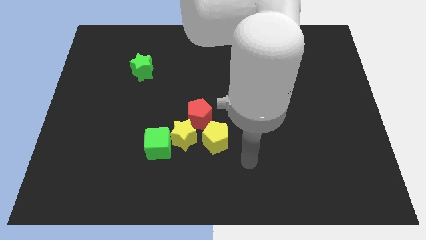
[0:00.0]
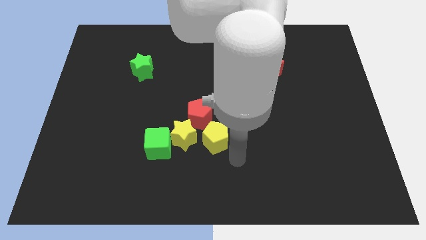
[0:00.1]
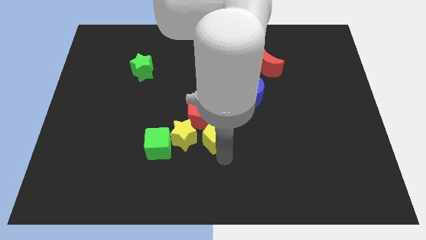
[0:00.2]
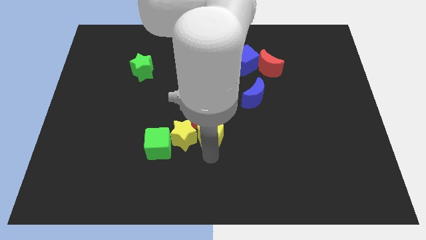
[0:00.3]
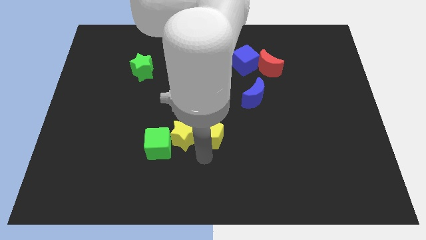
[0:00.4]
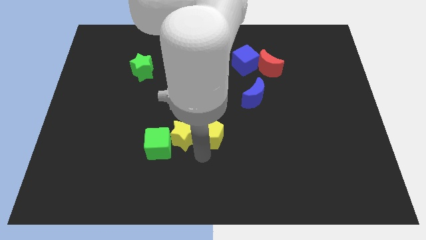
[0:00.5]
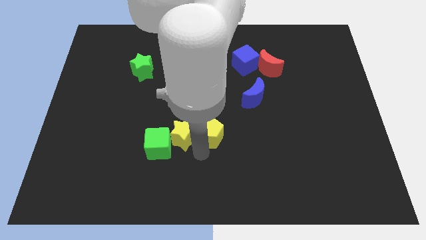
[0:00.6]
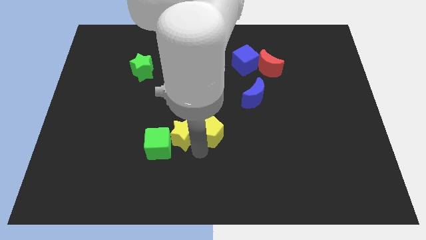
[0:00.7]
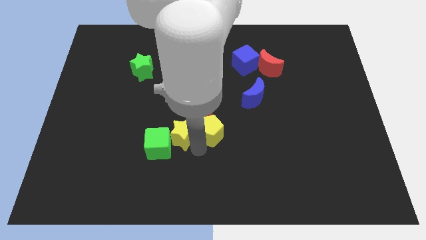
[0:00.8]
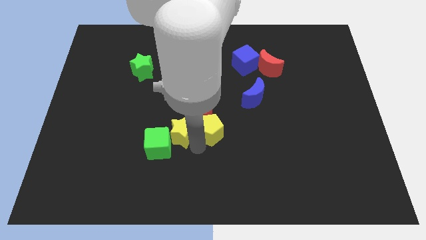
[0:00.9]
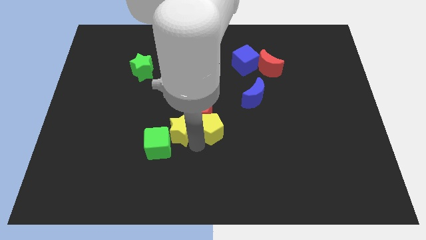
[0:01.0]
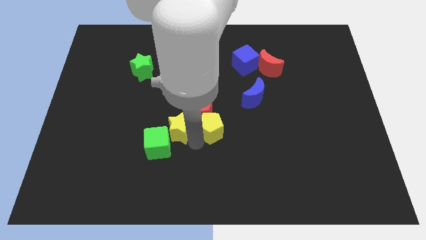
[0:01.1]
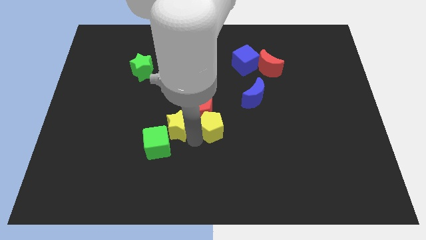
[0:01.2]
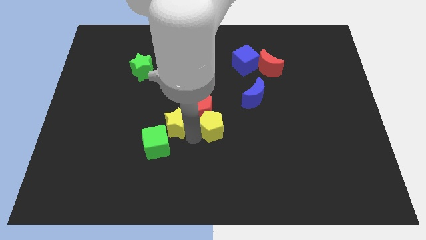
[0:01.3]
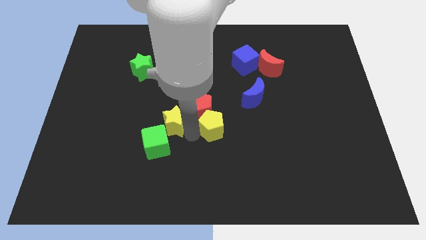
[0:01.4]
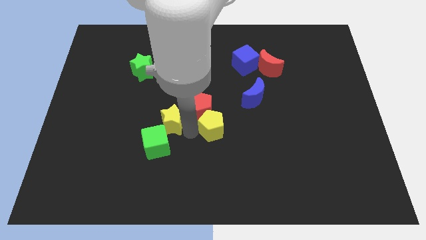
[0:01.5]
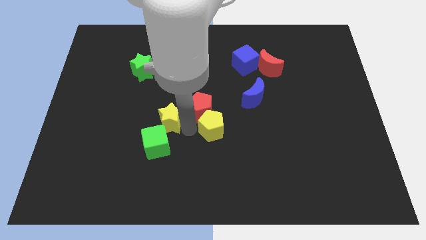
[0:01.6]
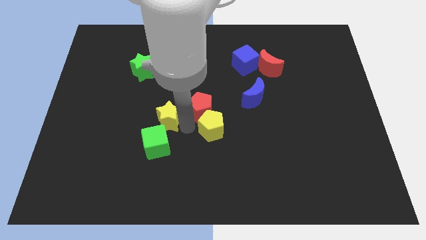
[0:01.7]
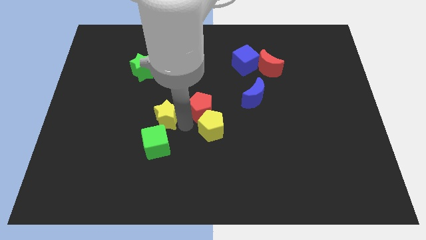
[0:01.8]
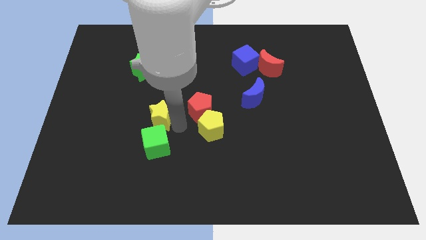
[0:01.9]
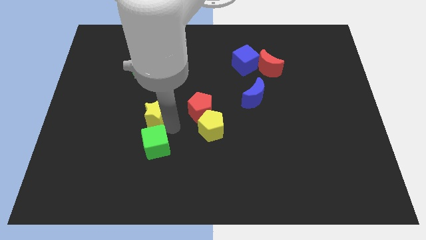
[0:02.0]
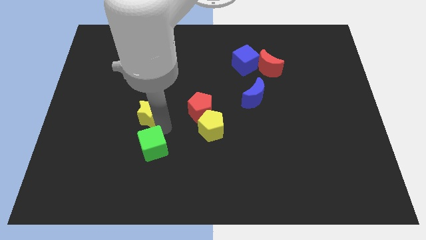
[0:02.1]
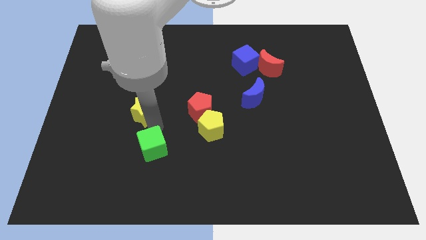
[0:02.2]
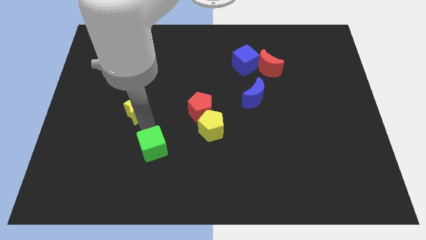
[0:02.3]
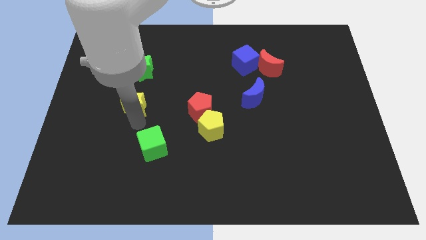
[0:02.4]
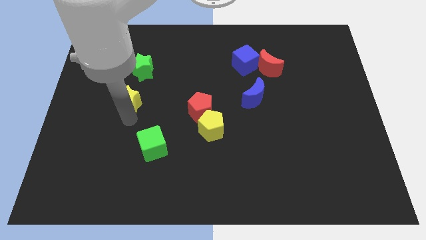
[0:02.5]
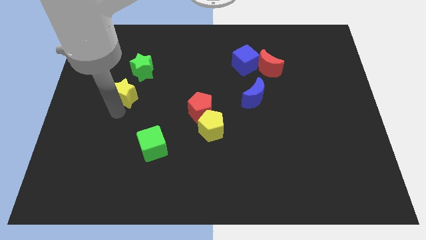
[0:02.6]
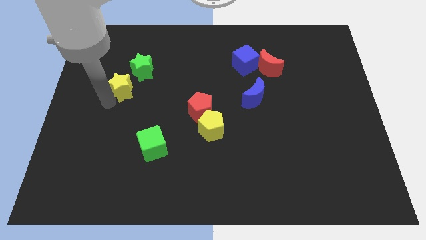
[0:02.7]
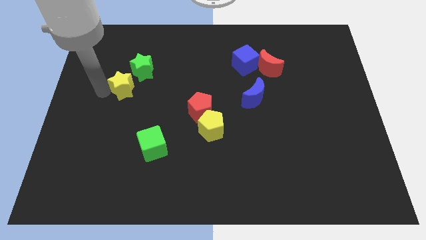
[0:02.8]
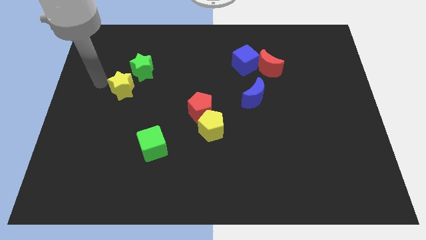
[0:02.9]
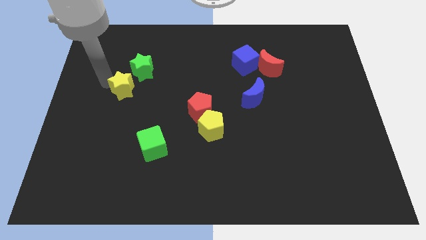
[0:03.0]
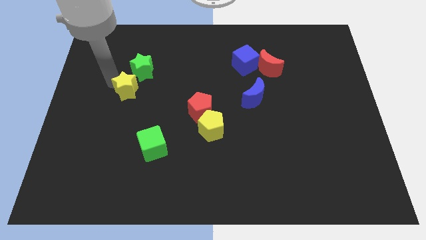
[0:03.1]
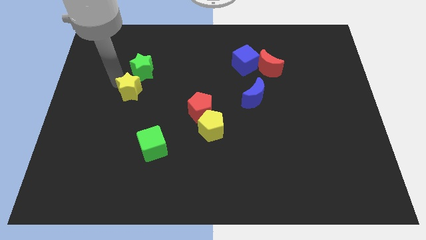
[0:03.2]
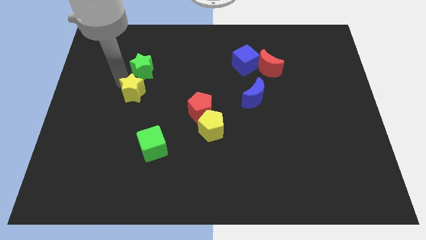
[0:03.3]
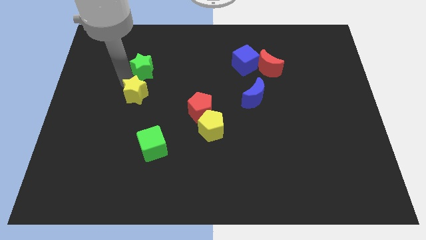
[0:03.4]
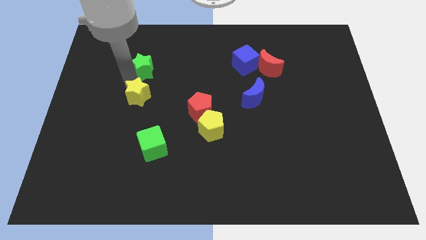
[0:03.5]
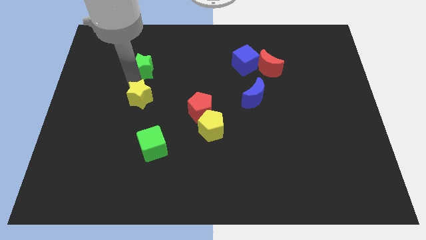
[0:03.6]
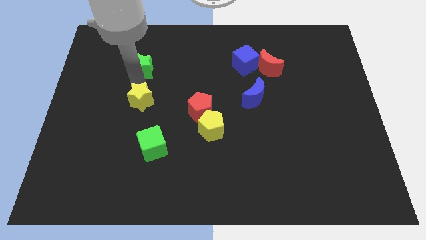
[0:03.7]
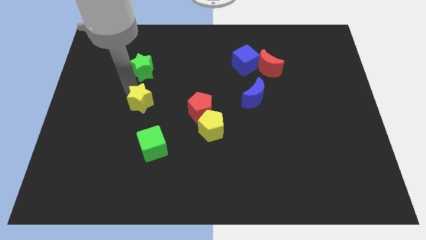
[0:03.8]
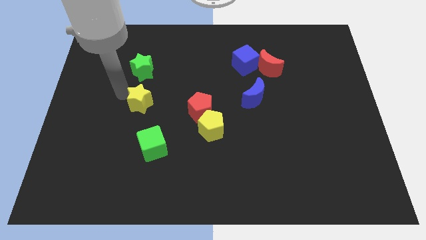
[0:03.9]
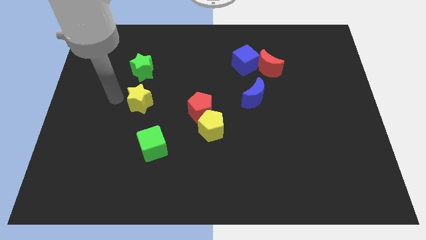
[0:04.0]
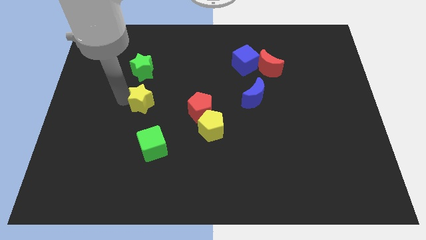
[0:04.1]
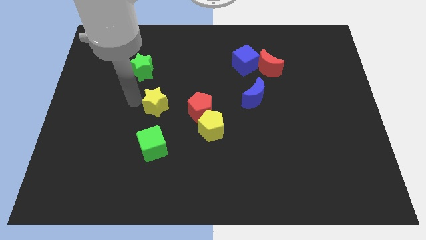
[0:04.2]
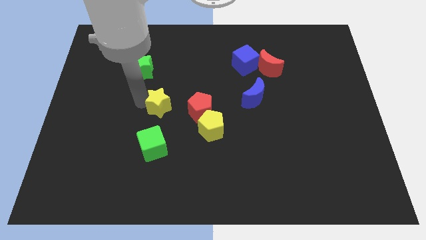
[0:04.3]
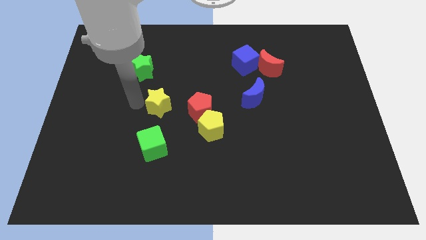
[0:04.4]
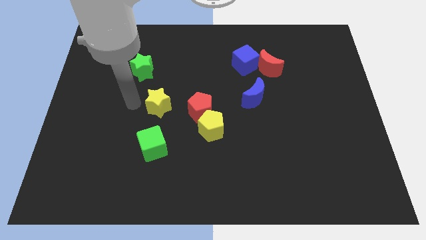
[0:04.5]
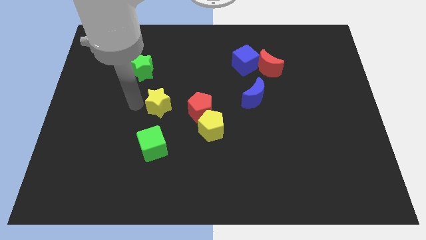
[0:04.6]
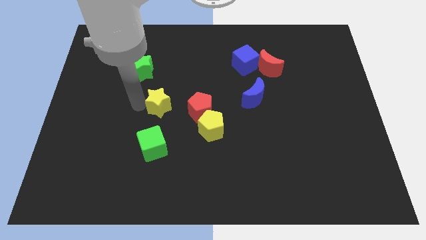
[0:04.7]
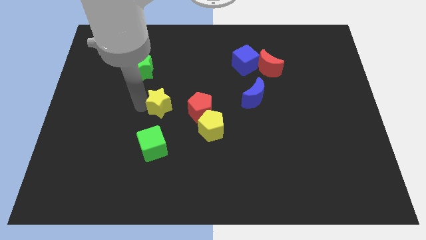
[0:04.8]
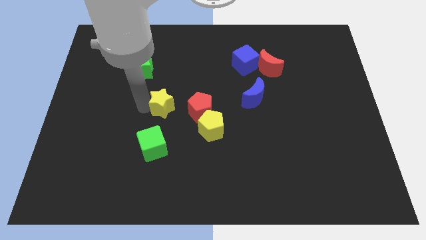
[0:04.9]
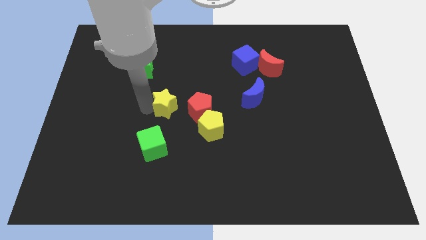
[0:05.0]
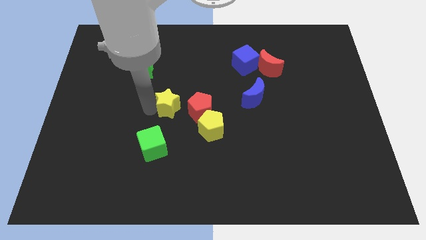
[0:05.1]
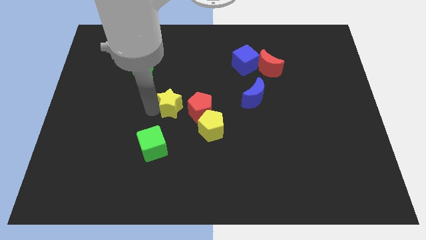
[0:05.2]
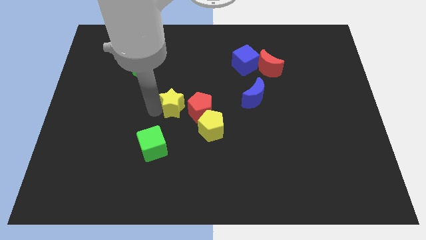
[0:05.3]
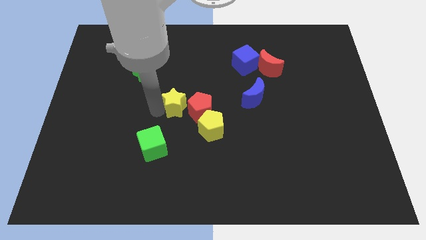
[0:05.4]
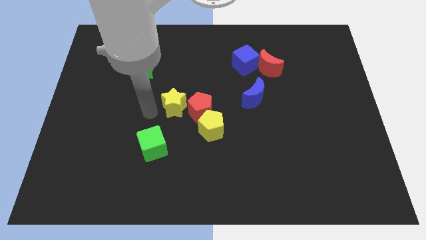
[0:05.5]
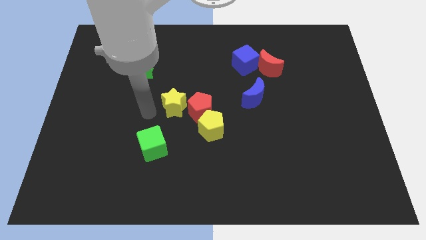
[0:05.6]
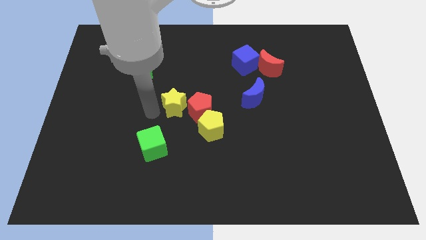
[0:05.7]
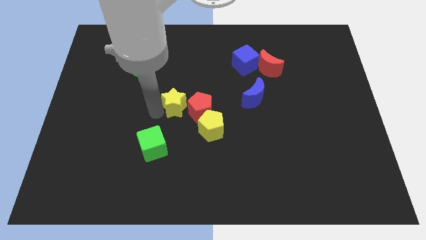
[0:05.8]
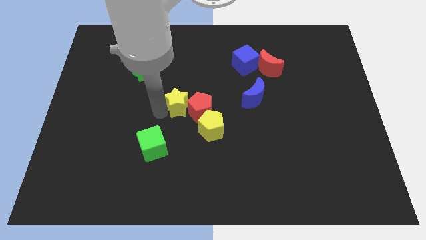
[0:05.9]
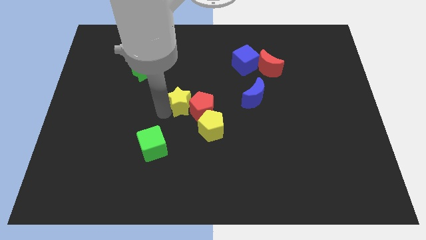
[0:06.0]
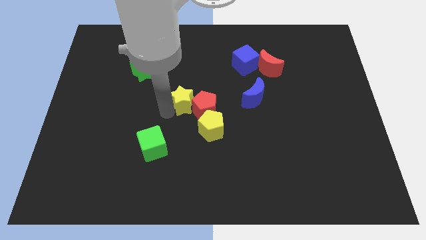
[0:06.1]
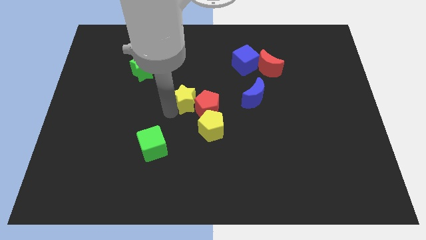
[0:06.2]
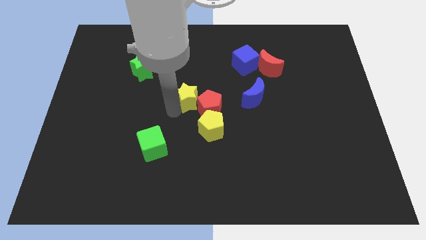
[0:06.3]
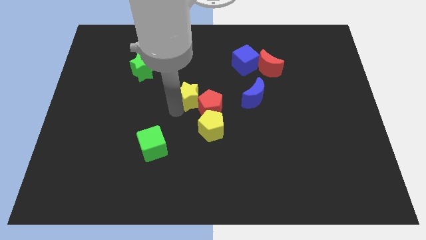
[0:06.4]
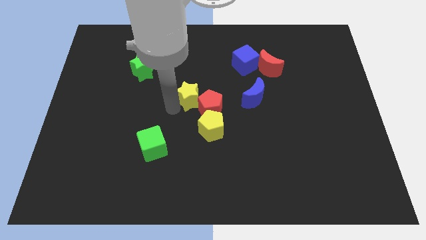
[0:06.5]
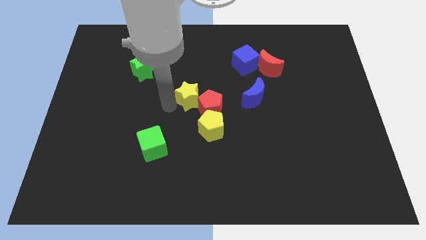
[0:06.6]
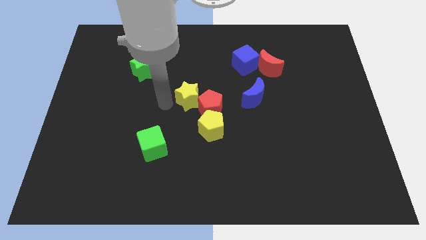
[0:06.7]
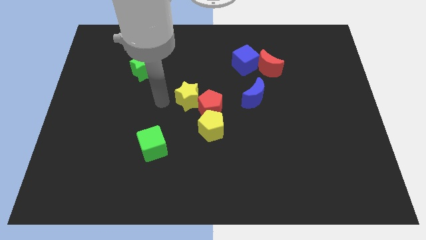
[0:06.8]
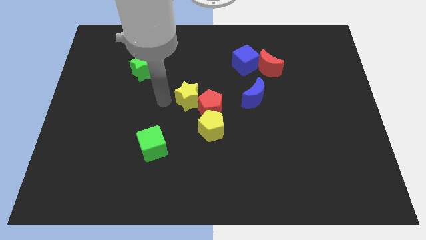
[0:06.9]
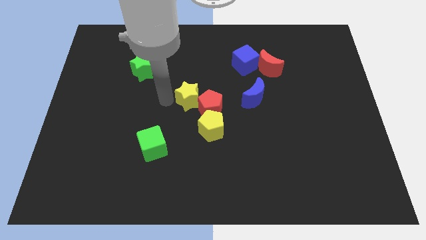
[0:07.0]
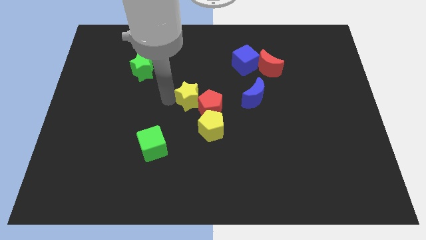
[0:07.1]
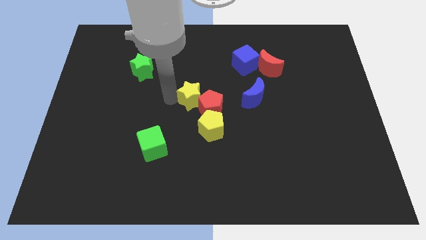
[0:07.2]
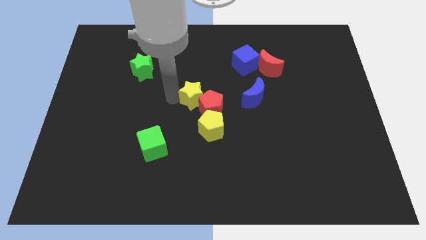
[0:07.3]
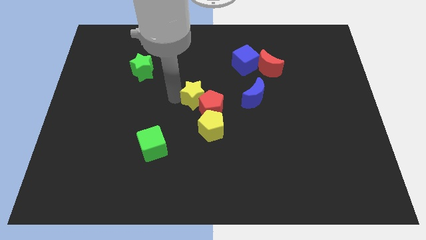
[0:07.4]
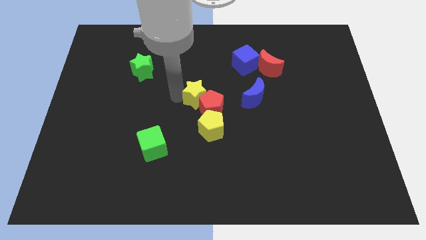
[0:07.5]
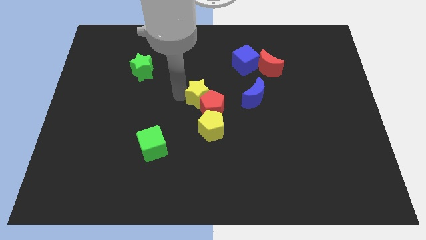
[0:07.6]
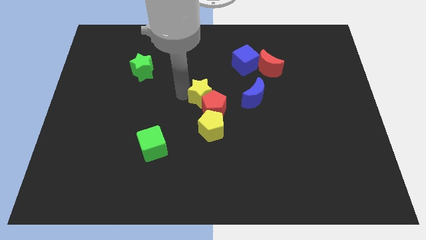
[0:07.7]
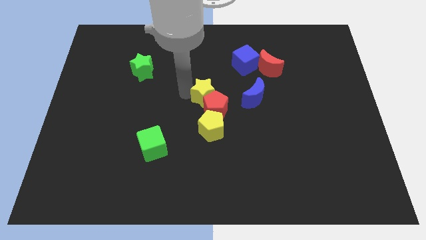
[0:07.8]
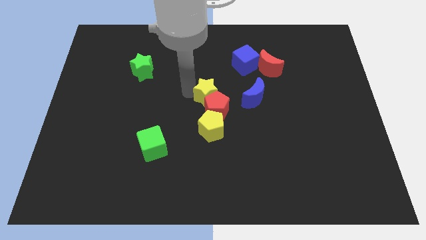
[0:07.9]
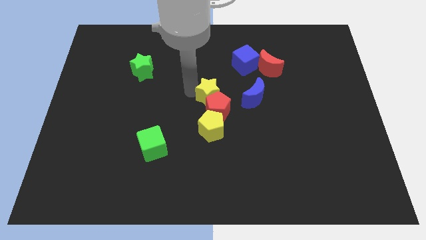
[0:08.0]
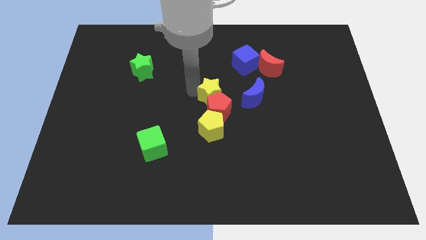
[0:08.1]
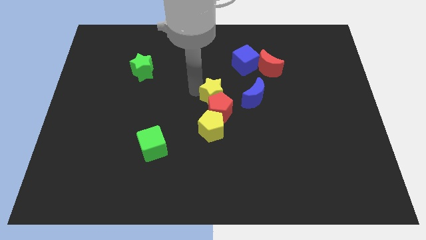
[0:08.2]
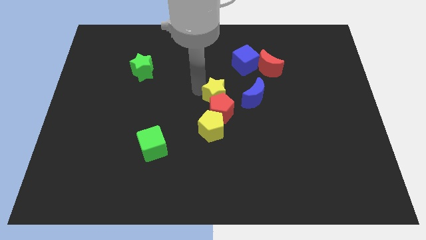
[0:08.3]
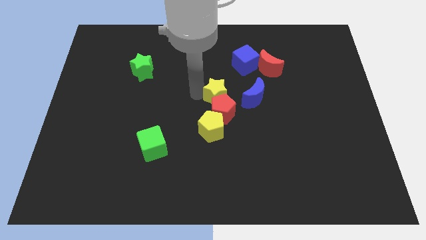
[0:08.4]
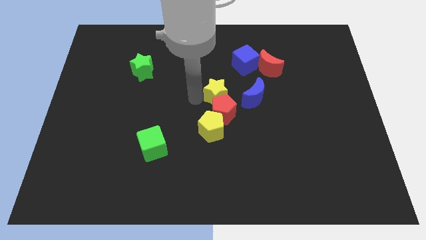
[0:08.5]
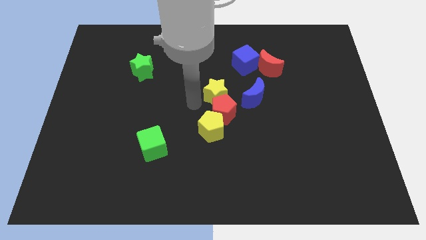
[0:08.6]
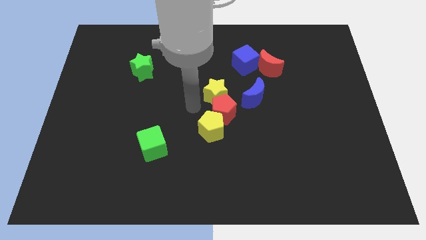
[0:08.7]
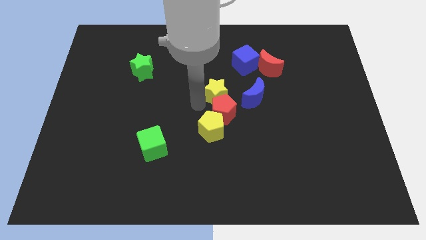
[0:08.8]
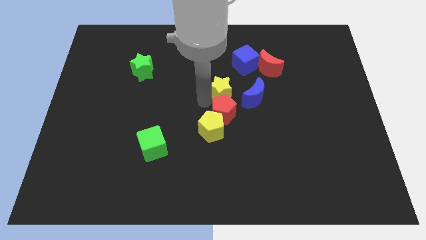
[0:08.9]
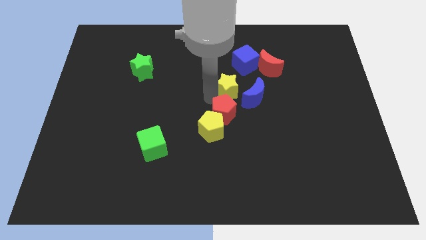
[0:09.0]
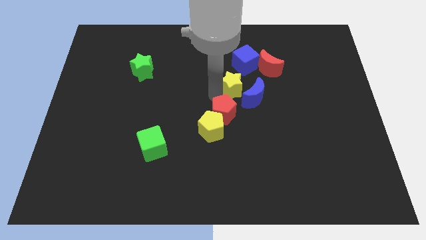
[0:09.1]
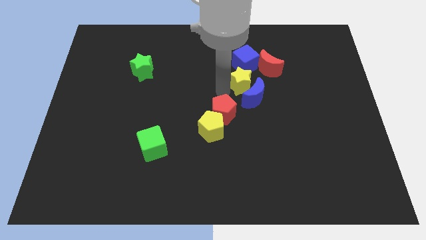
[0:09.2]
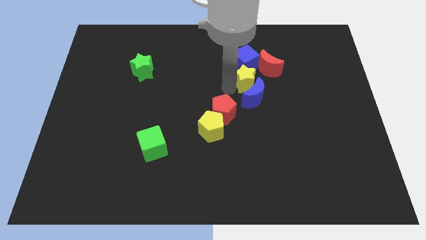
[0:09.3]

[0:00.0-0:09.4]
move the yellow star to the bottom right side of the blue cube
